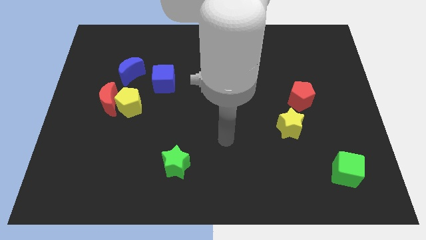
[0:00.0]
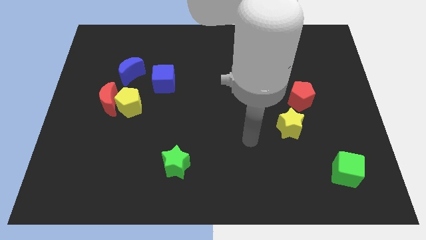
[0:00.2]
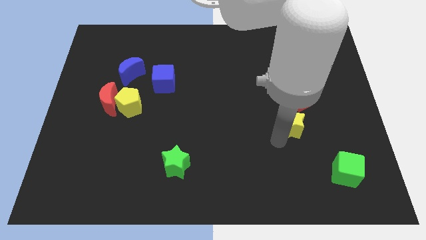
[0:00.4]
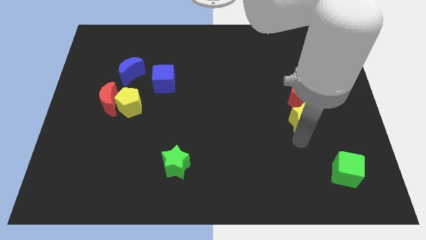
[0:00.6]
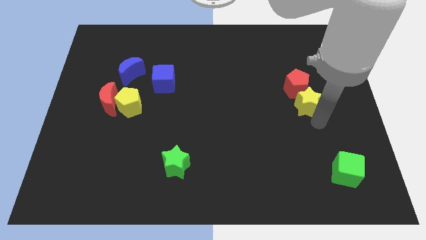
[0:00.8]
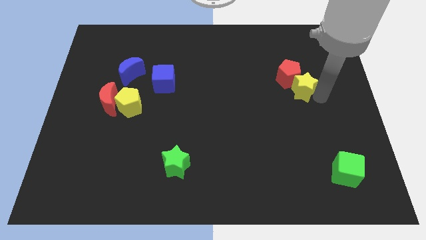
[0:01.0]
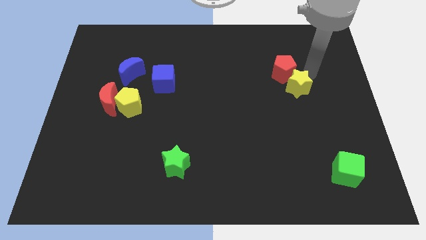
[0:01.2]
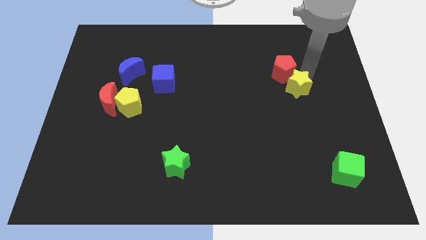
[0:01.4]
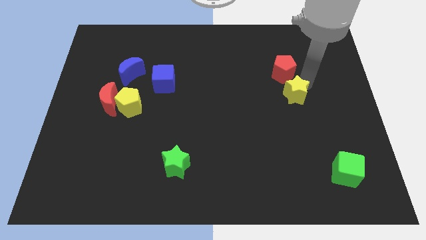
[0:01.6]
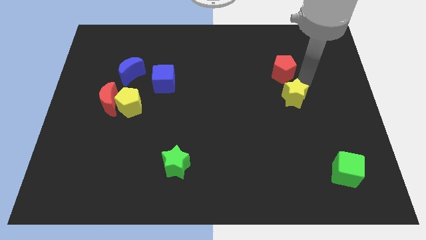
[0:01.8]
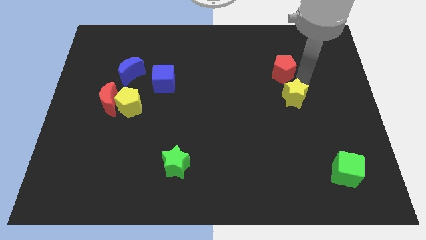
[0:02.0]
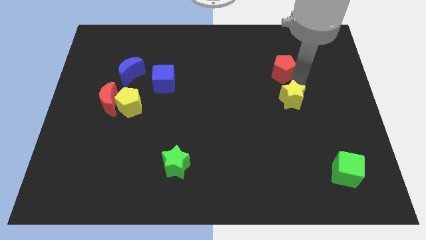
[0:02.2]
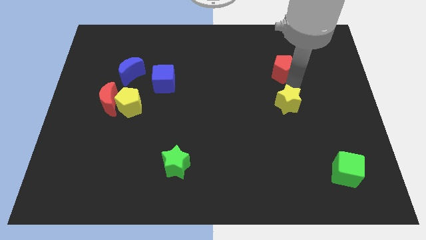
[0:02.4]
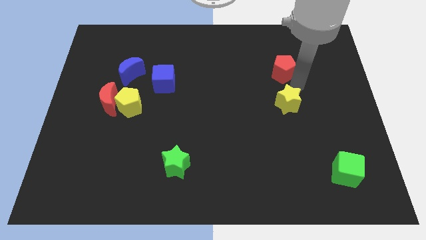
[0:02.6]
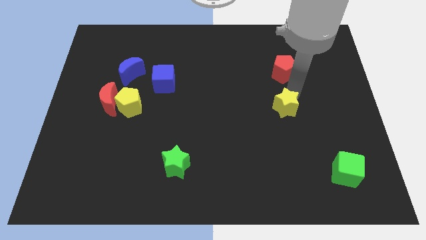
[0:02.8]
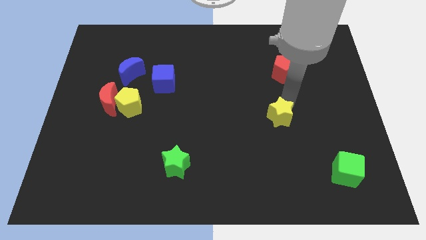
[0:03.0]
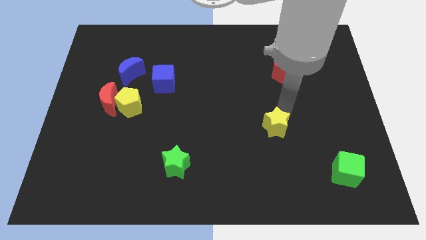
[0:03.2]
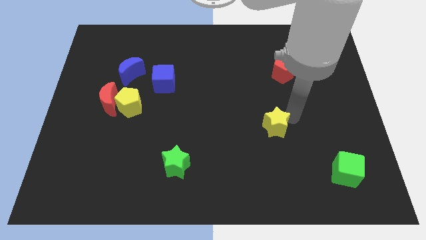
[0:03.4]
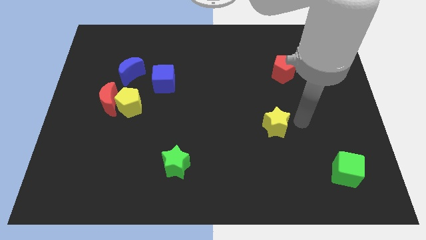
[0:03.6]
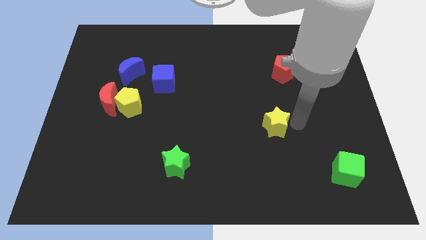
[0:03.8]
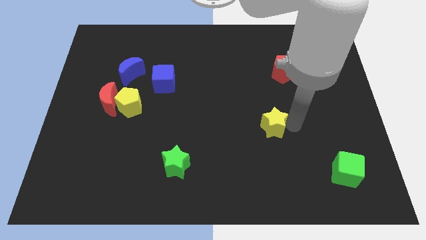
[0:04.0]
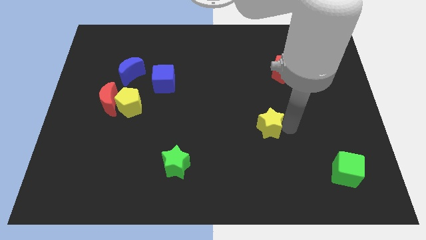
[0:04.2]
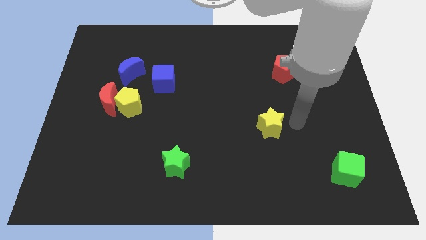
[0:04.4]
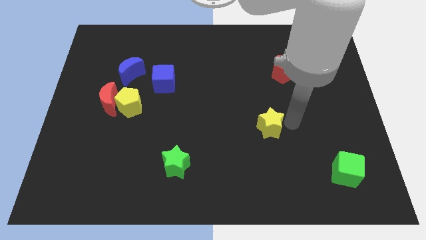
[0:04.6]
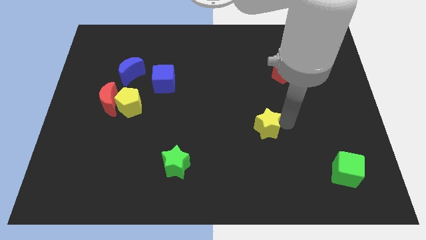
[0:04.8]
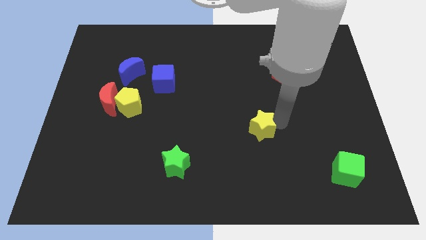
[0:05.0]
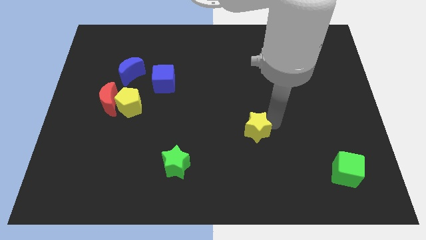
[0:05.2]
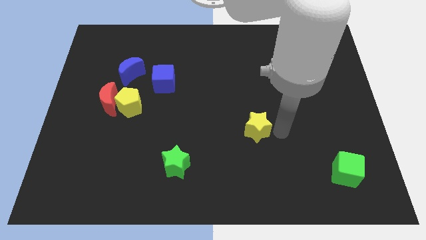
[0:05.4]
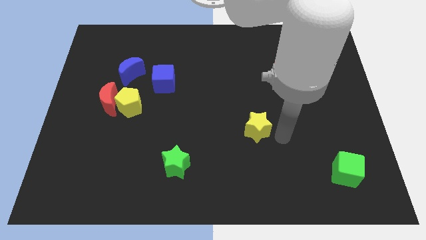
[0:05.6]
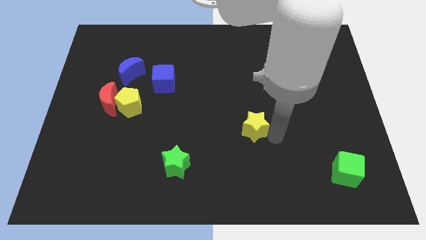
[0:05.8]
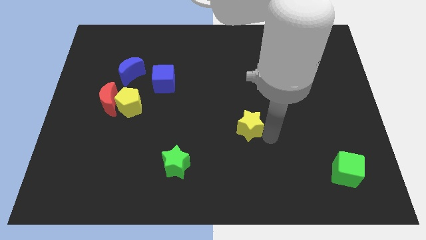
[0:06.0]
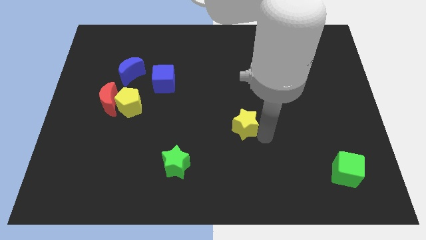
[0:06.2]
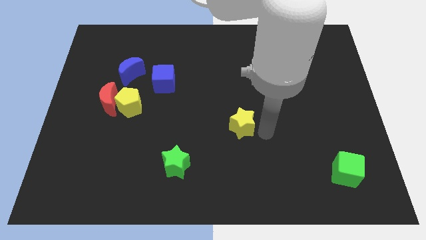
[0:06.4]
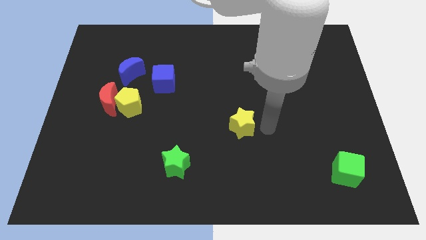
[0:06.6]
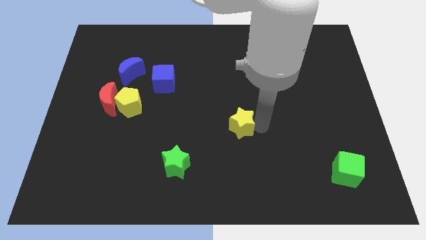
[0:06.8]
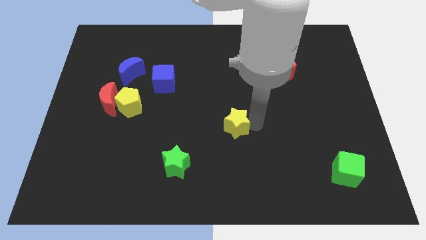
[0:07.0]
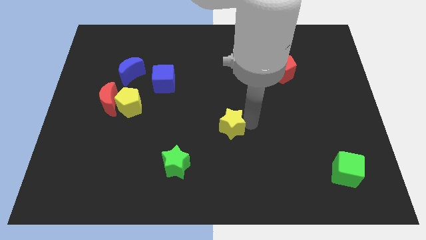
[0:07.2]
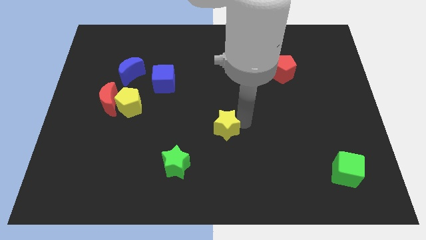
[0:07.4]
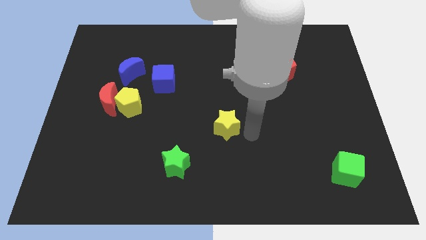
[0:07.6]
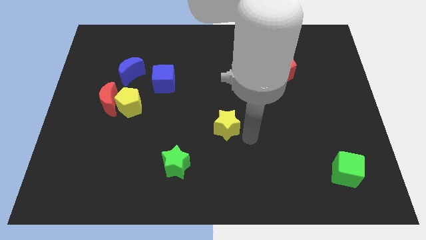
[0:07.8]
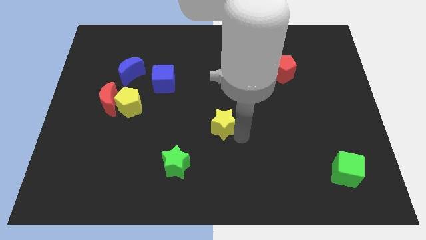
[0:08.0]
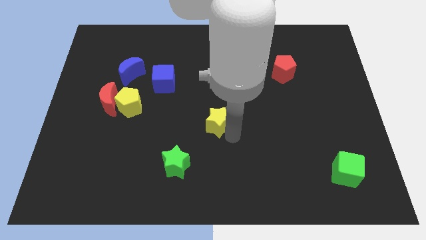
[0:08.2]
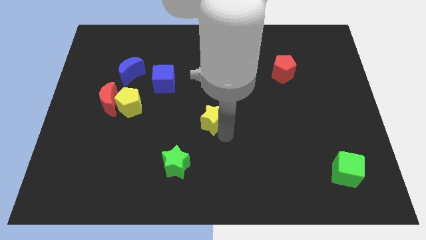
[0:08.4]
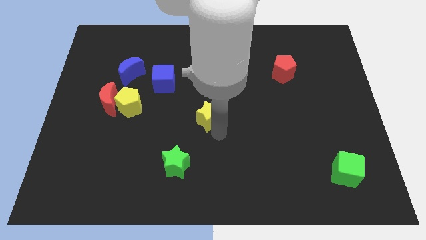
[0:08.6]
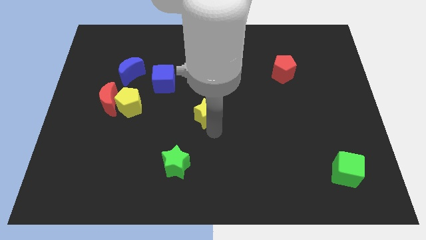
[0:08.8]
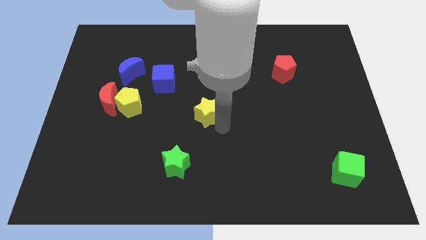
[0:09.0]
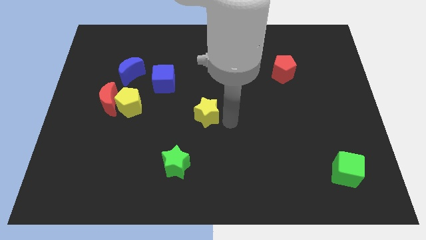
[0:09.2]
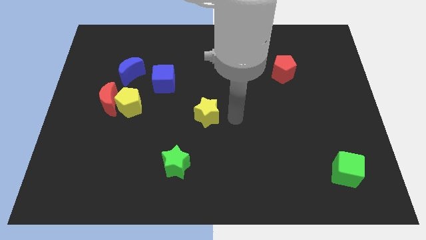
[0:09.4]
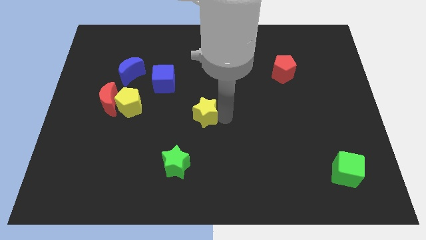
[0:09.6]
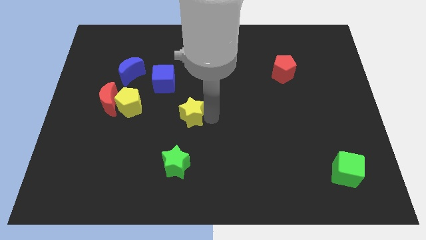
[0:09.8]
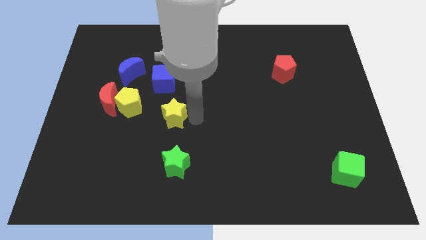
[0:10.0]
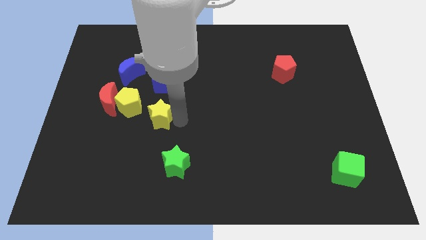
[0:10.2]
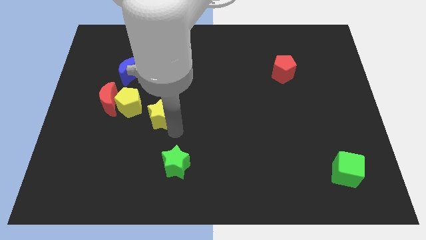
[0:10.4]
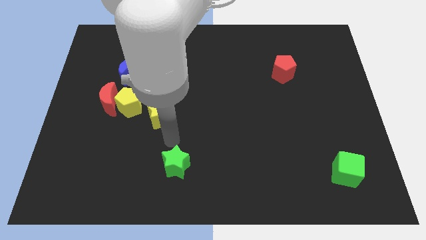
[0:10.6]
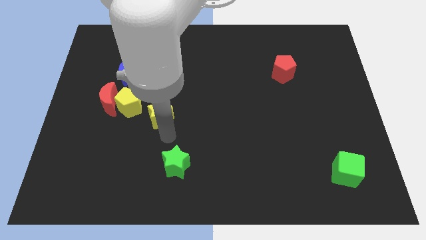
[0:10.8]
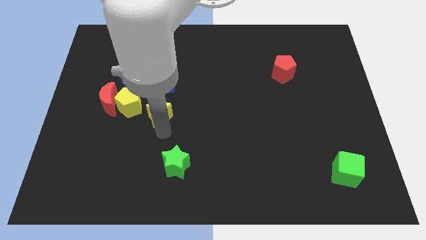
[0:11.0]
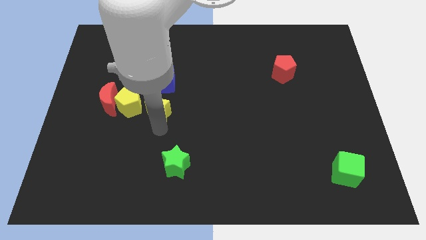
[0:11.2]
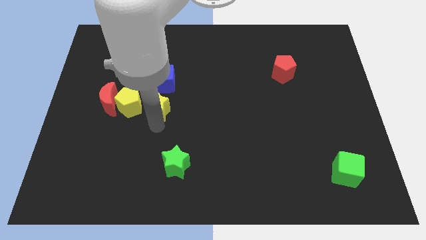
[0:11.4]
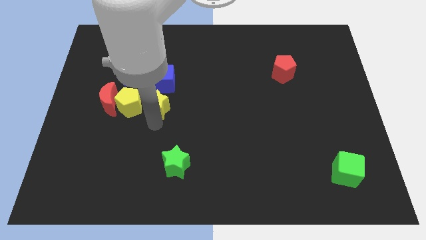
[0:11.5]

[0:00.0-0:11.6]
slide the yellow star towards the yellow pentagon

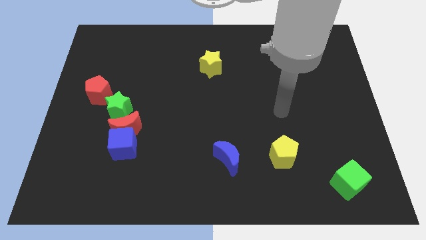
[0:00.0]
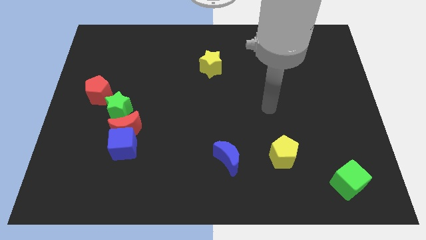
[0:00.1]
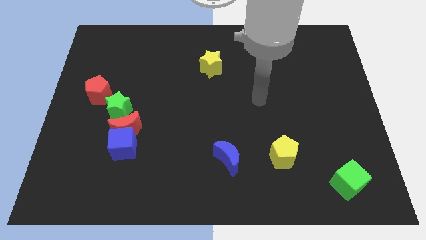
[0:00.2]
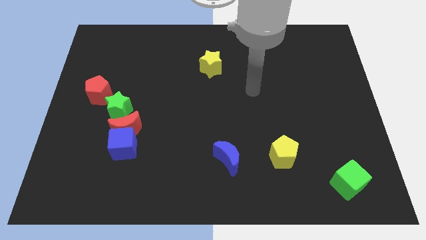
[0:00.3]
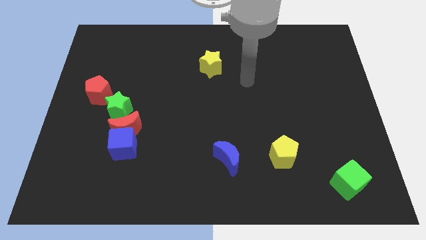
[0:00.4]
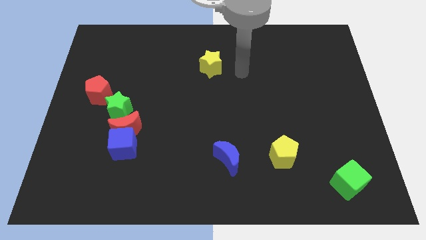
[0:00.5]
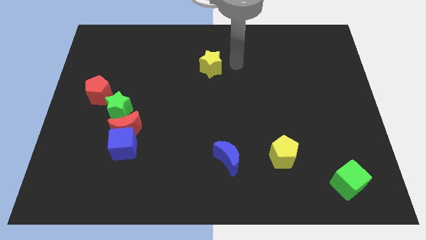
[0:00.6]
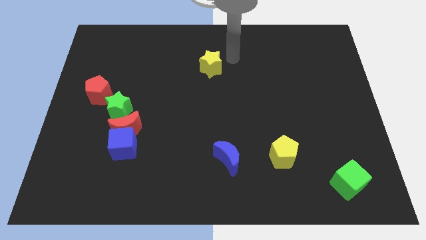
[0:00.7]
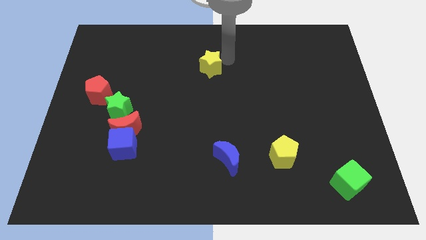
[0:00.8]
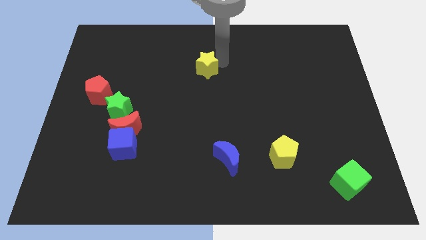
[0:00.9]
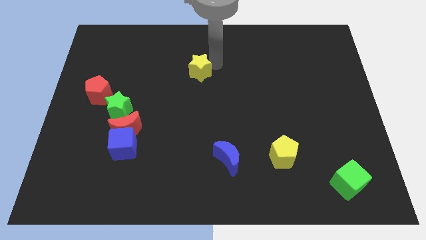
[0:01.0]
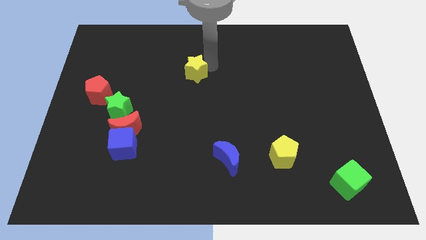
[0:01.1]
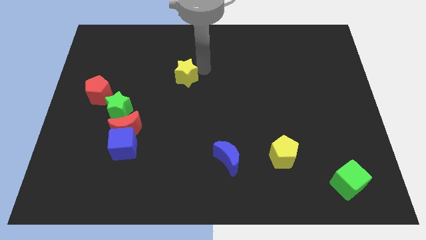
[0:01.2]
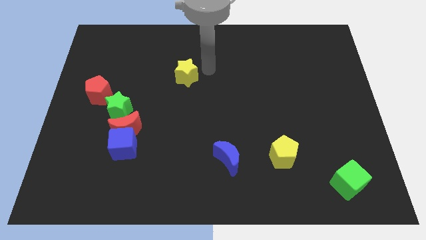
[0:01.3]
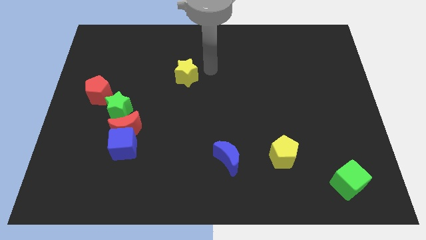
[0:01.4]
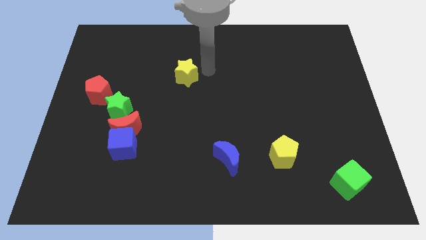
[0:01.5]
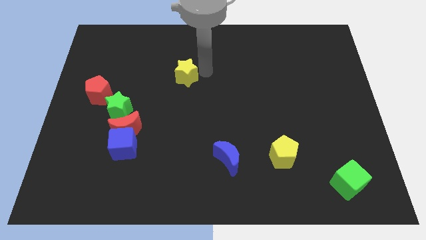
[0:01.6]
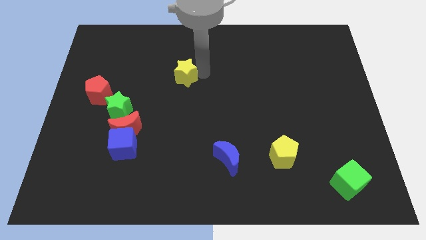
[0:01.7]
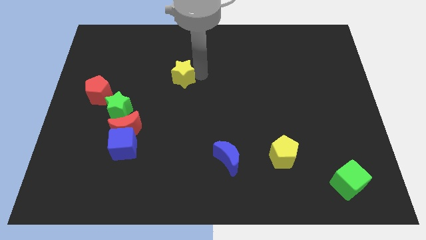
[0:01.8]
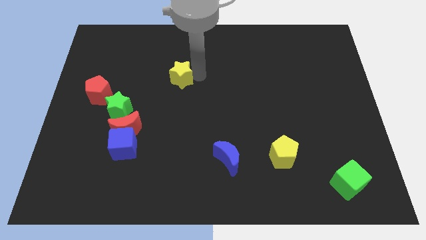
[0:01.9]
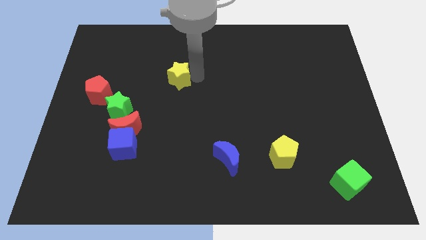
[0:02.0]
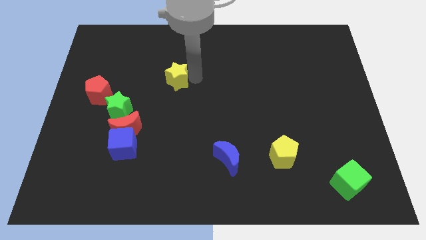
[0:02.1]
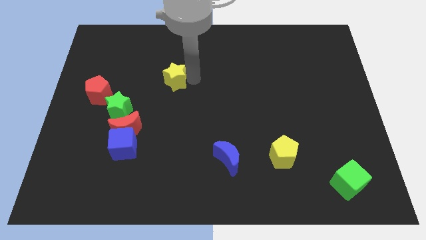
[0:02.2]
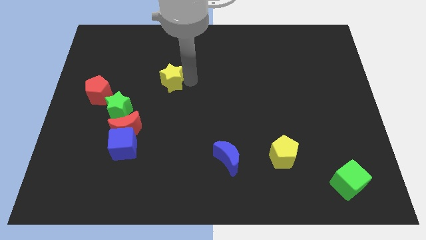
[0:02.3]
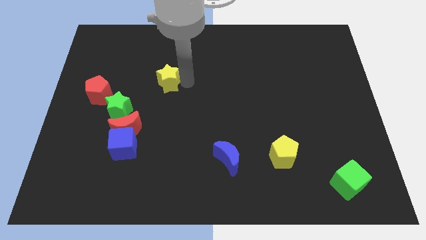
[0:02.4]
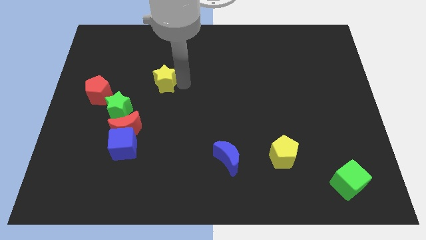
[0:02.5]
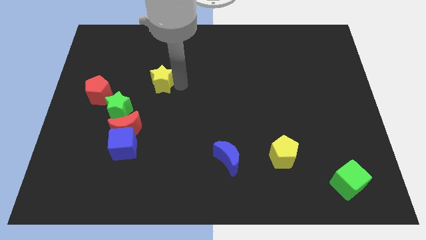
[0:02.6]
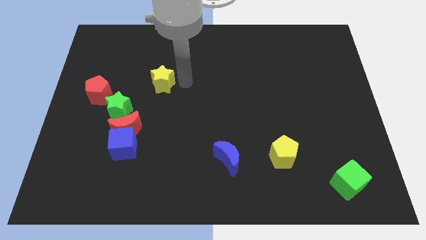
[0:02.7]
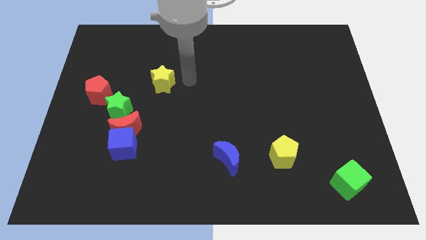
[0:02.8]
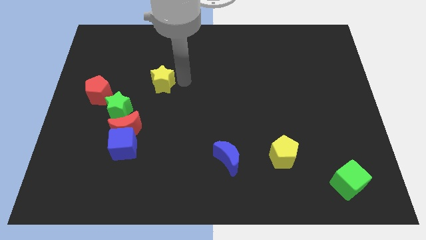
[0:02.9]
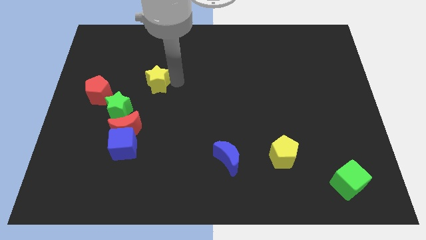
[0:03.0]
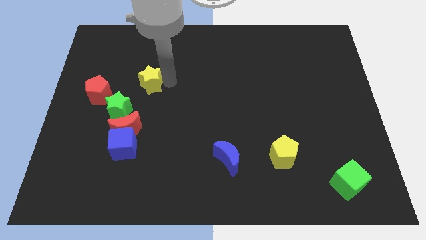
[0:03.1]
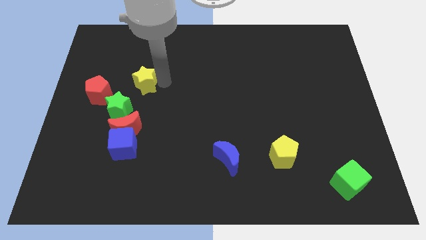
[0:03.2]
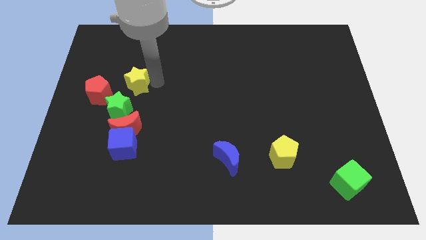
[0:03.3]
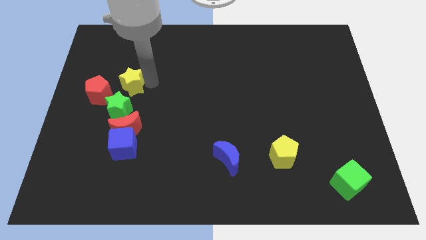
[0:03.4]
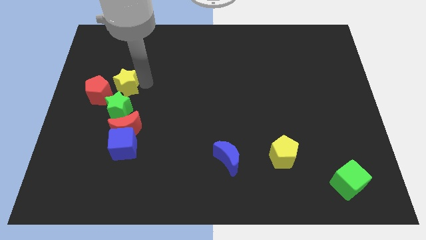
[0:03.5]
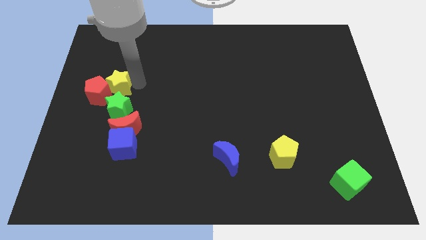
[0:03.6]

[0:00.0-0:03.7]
push the yellow star next to the red pentagon
